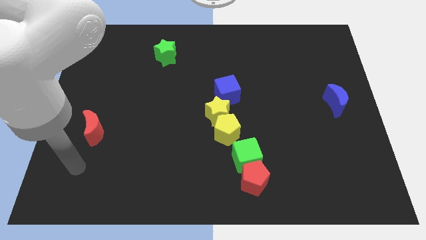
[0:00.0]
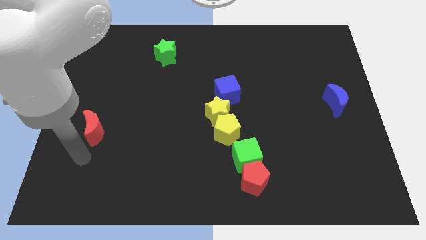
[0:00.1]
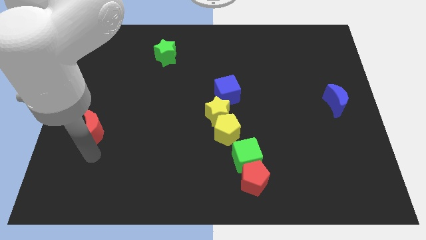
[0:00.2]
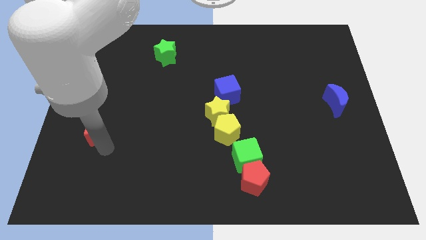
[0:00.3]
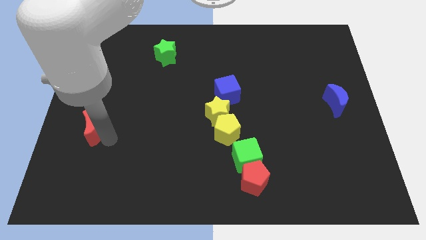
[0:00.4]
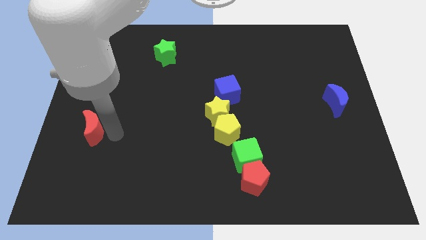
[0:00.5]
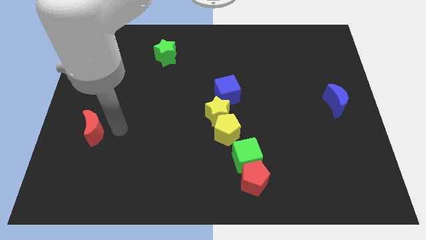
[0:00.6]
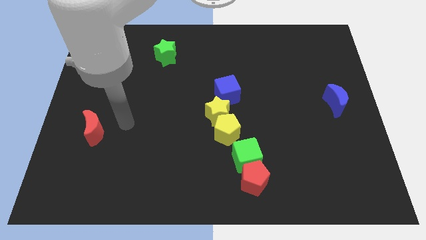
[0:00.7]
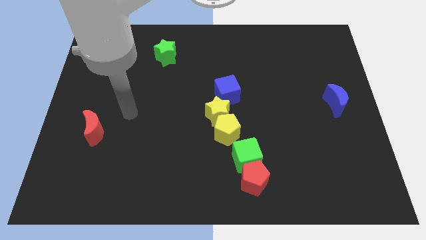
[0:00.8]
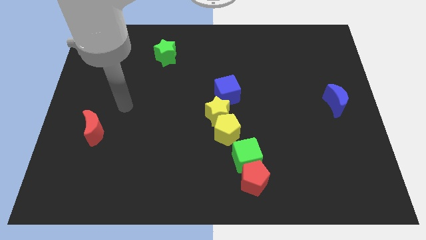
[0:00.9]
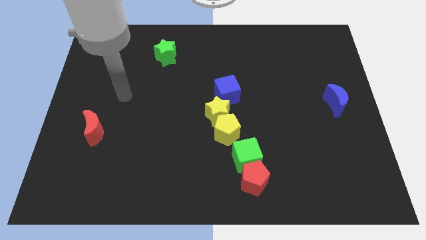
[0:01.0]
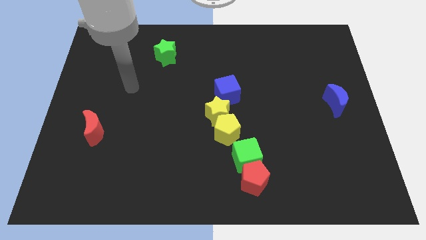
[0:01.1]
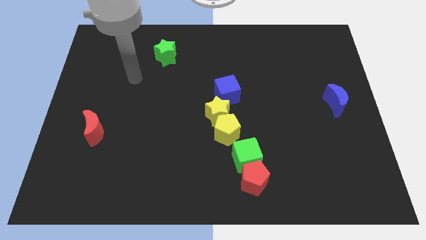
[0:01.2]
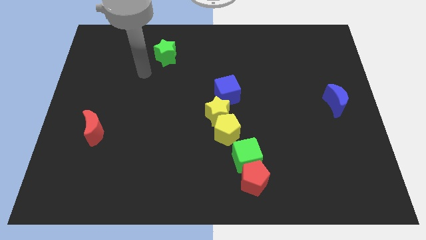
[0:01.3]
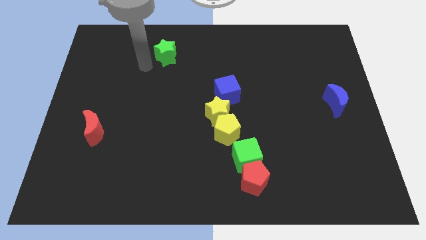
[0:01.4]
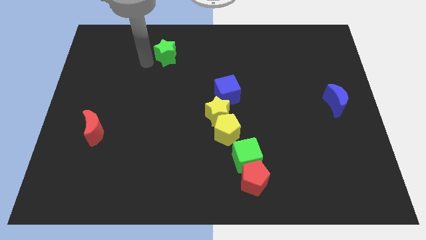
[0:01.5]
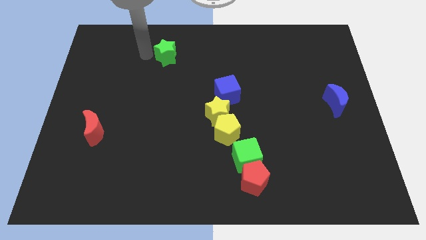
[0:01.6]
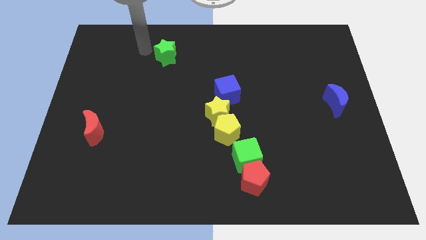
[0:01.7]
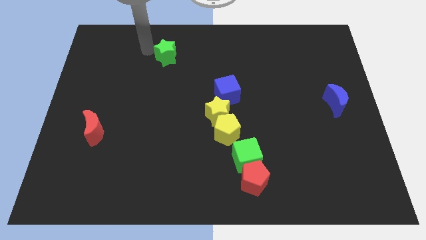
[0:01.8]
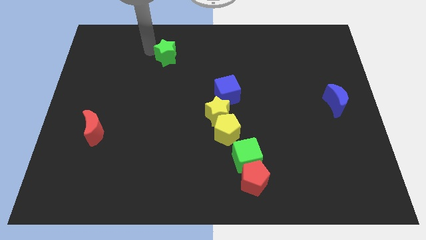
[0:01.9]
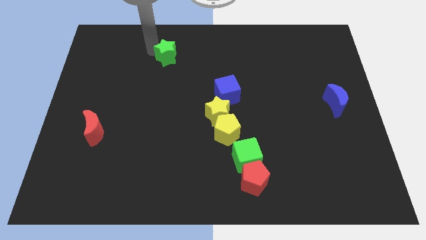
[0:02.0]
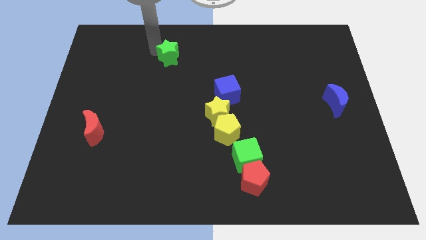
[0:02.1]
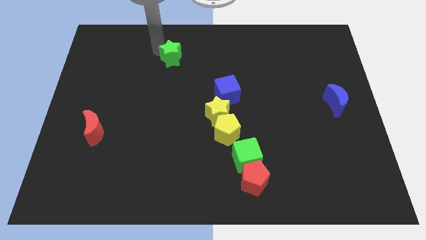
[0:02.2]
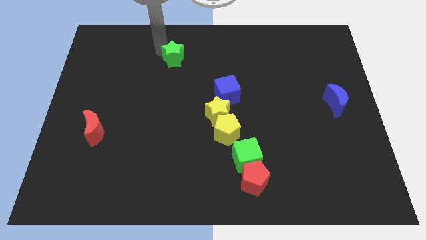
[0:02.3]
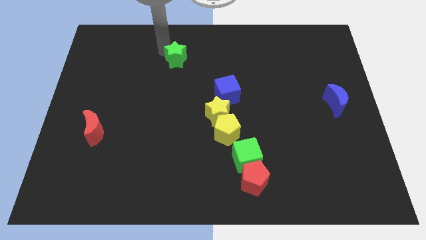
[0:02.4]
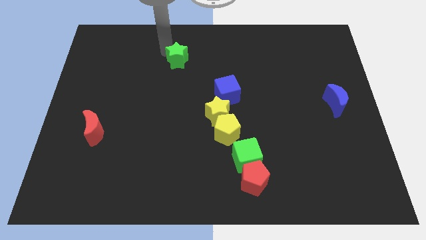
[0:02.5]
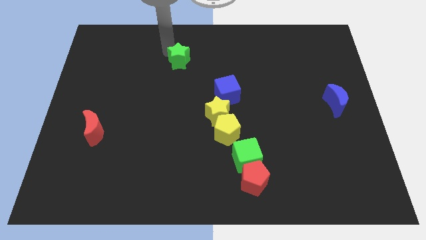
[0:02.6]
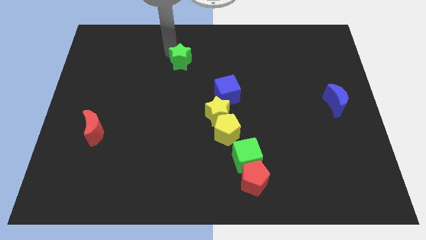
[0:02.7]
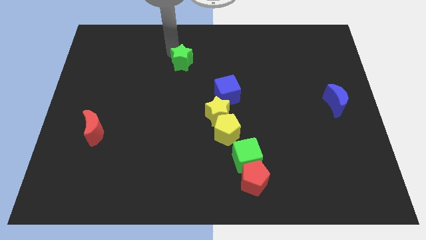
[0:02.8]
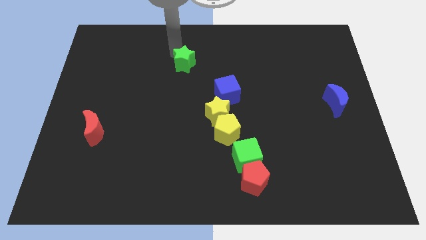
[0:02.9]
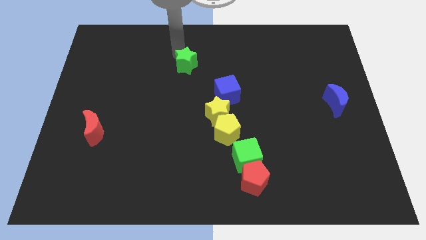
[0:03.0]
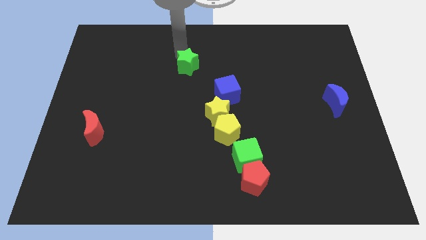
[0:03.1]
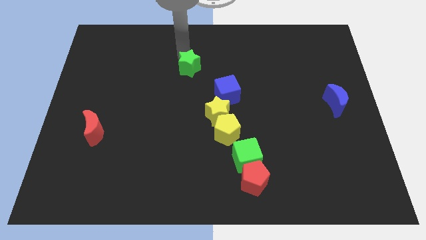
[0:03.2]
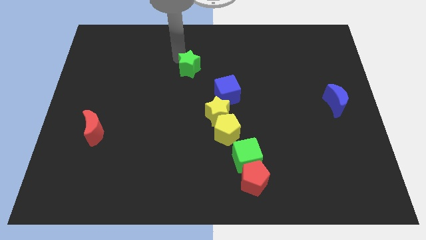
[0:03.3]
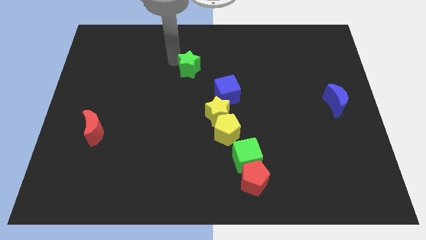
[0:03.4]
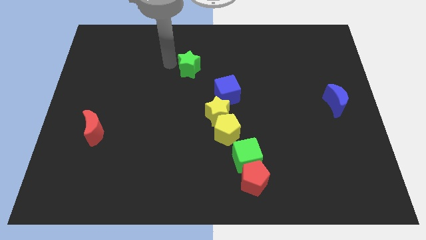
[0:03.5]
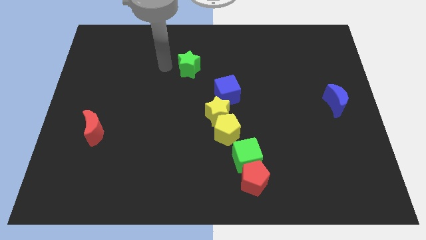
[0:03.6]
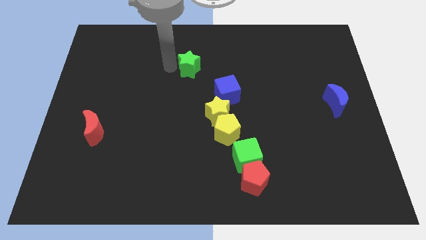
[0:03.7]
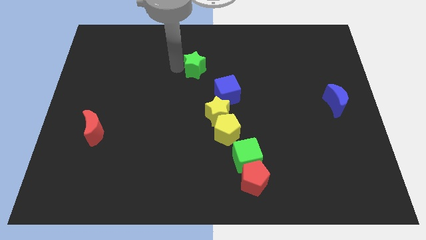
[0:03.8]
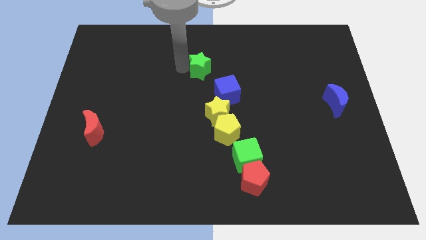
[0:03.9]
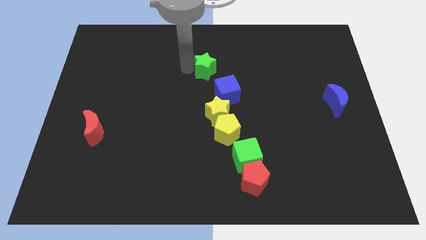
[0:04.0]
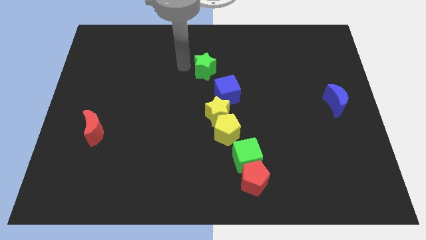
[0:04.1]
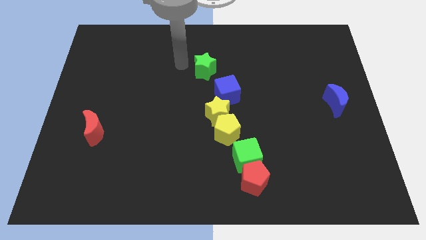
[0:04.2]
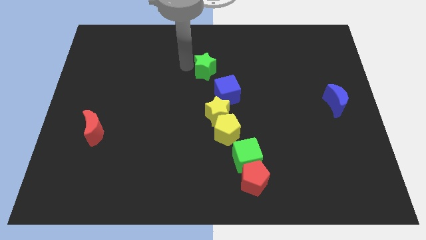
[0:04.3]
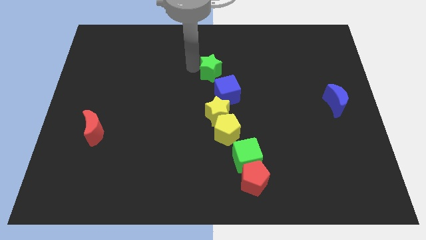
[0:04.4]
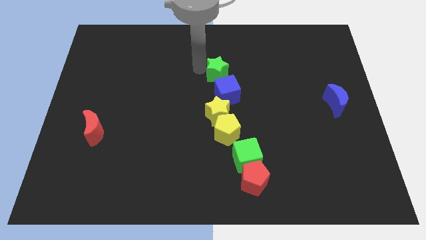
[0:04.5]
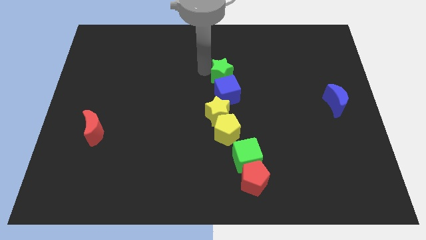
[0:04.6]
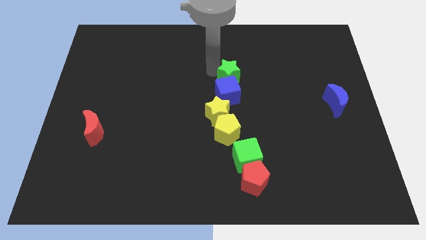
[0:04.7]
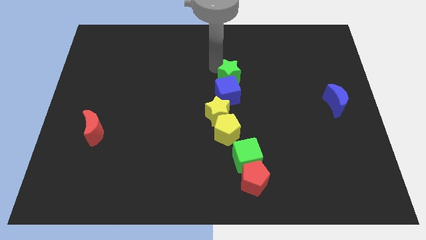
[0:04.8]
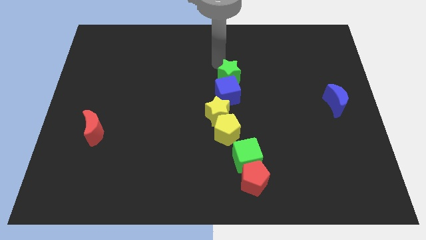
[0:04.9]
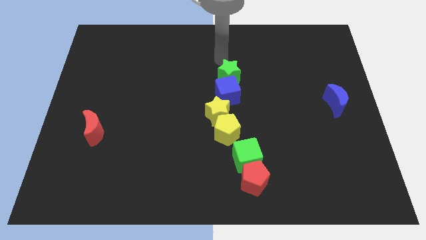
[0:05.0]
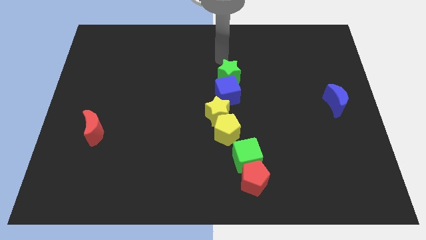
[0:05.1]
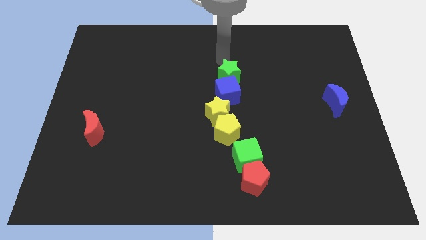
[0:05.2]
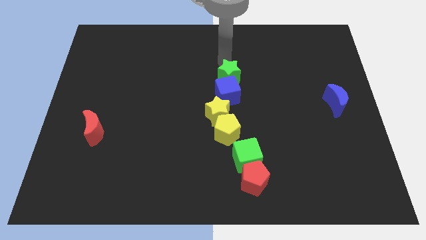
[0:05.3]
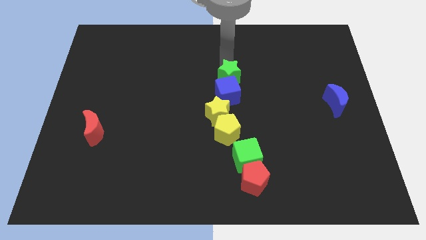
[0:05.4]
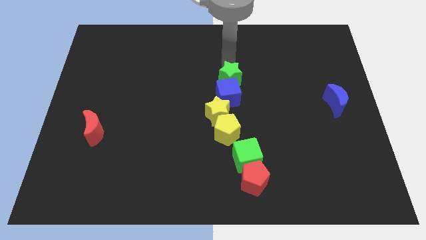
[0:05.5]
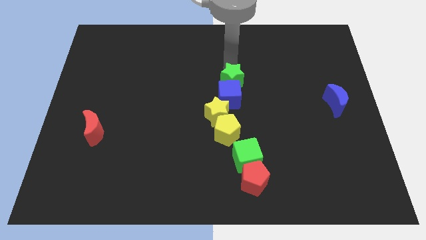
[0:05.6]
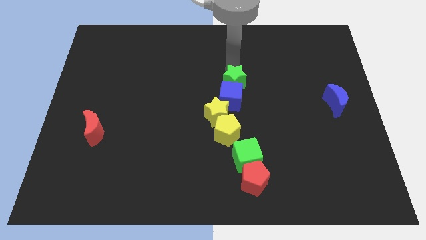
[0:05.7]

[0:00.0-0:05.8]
push the green star diagonally up and to the right of the yellow star

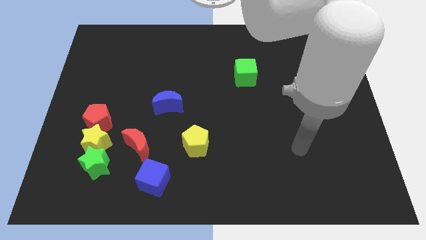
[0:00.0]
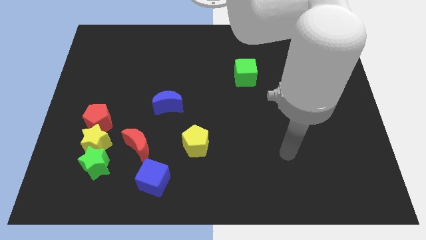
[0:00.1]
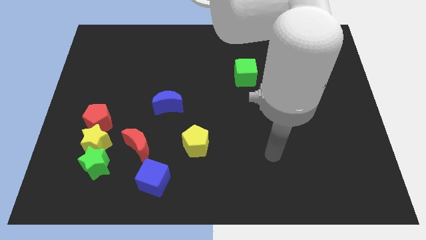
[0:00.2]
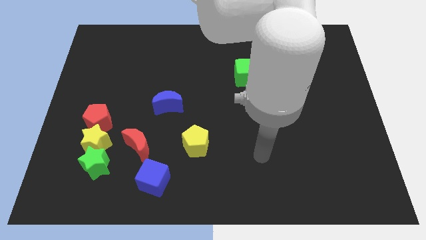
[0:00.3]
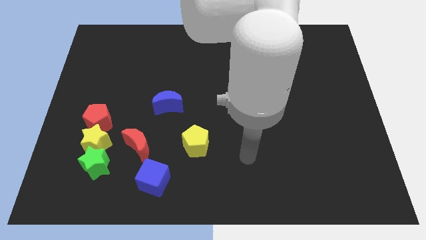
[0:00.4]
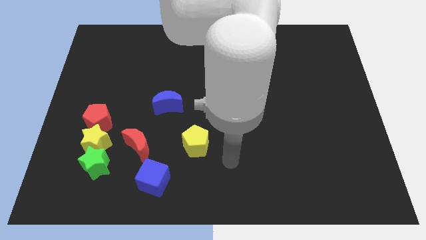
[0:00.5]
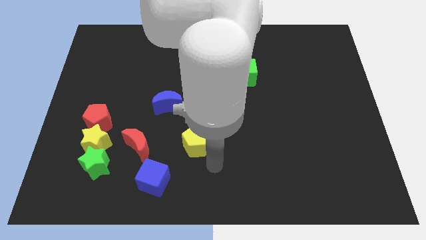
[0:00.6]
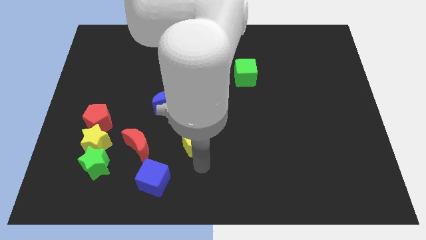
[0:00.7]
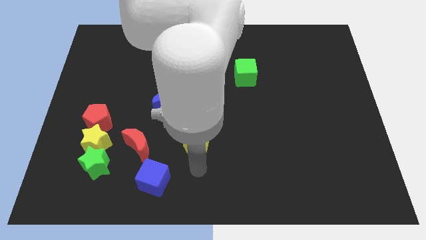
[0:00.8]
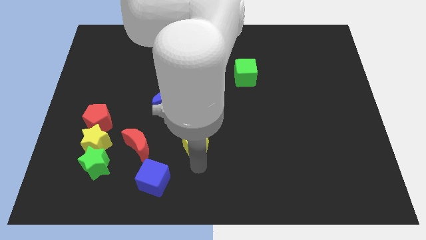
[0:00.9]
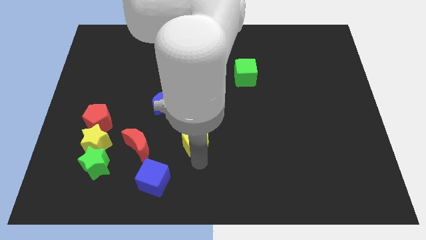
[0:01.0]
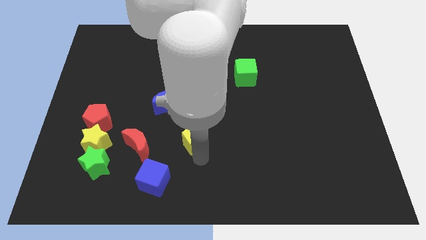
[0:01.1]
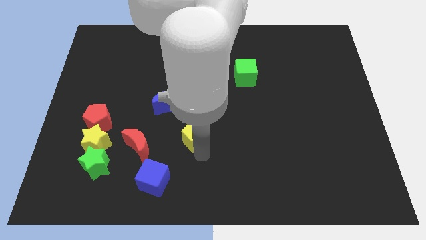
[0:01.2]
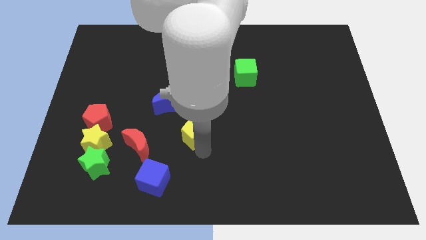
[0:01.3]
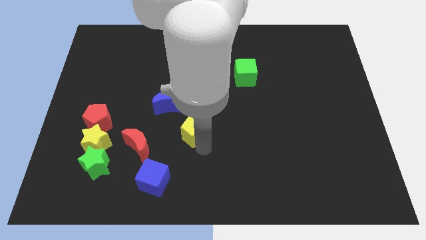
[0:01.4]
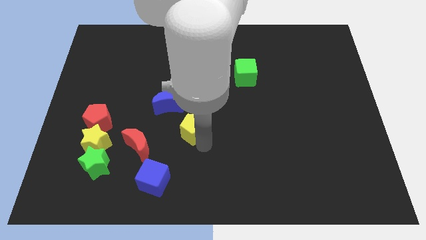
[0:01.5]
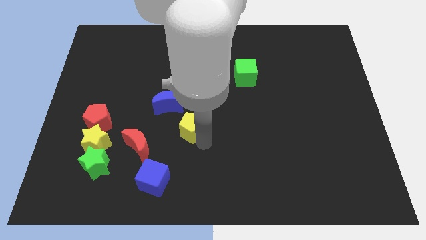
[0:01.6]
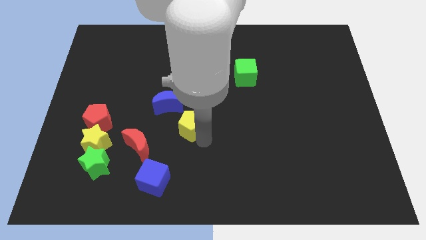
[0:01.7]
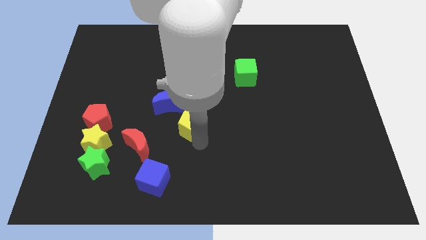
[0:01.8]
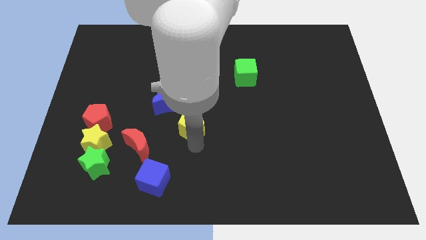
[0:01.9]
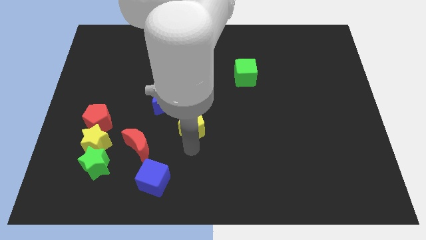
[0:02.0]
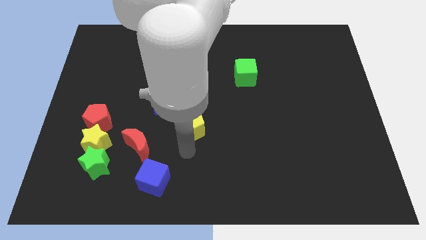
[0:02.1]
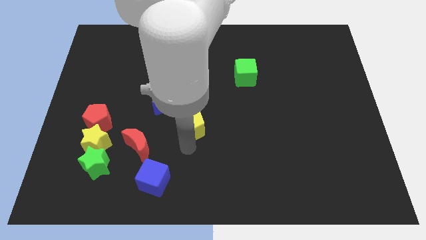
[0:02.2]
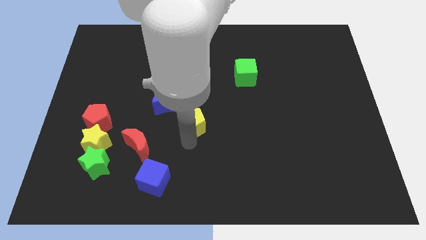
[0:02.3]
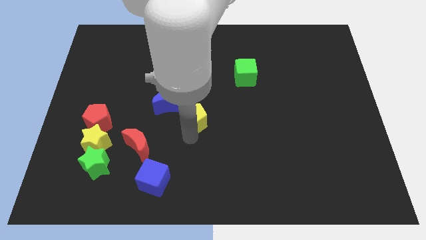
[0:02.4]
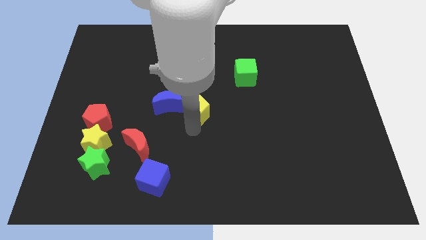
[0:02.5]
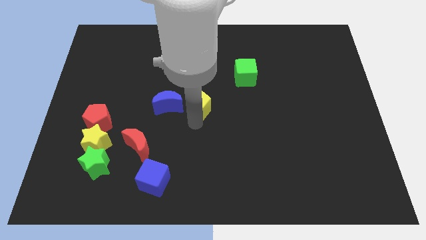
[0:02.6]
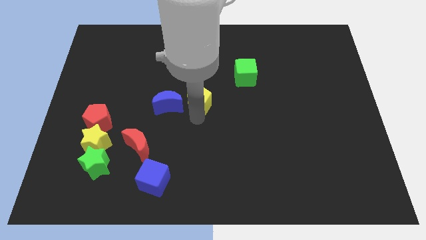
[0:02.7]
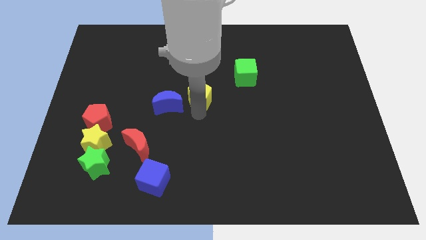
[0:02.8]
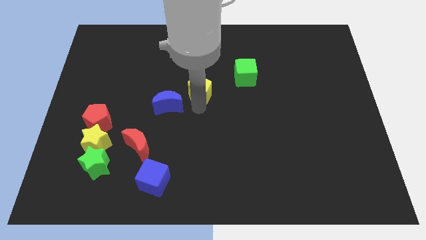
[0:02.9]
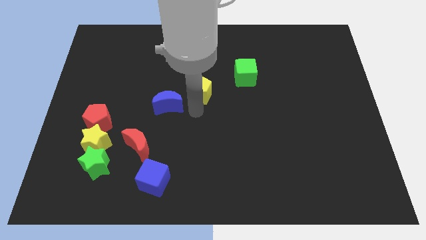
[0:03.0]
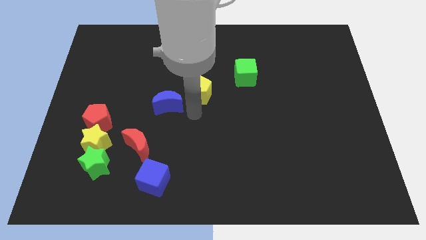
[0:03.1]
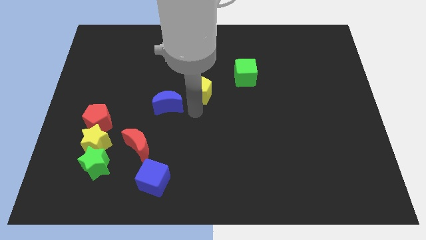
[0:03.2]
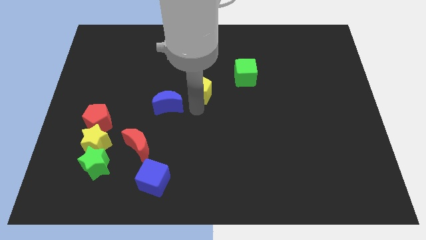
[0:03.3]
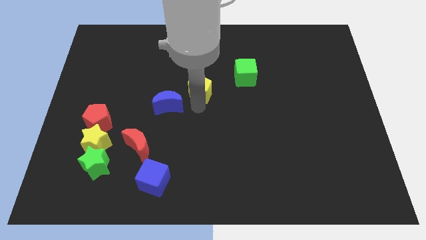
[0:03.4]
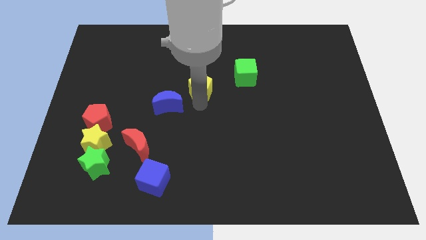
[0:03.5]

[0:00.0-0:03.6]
push the yellow pentagon to the left side of the green cube
